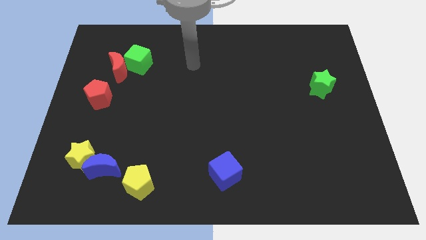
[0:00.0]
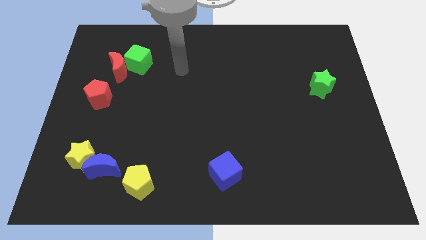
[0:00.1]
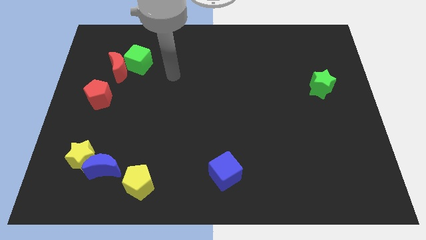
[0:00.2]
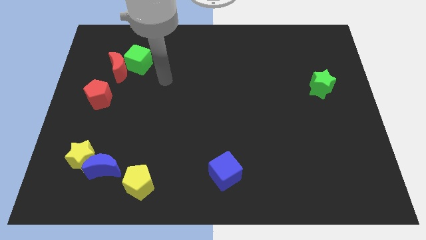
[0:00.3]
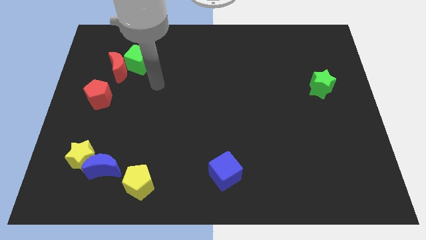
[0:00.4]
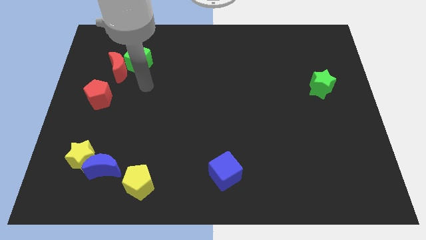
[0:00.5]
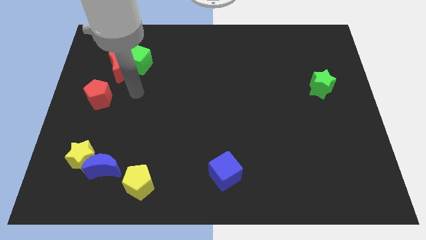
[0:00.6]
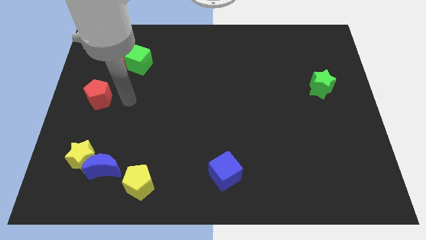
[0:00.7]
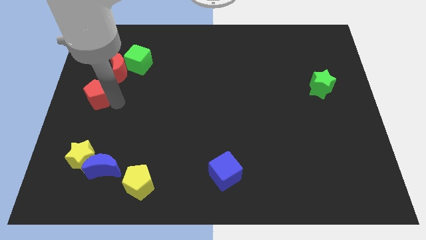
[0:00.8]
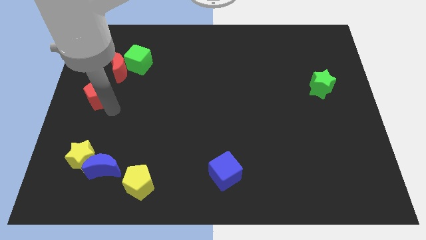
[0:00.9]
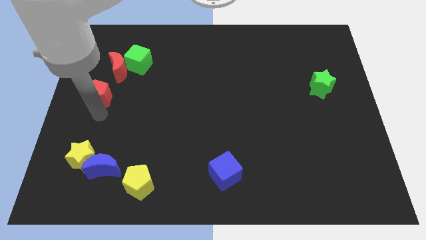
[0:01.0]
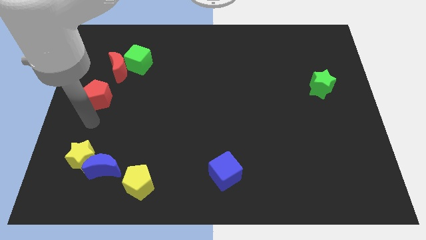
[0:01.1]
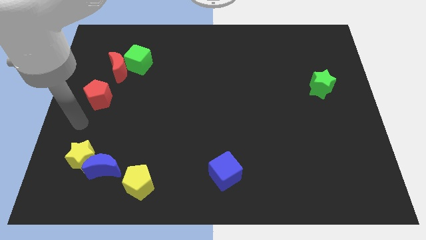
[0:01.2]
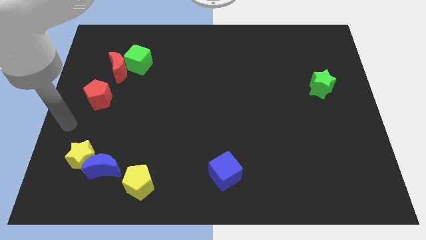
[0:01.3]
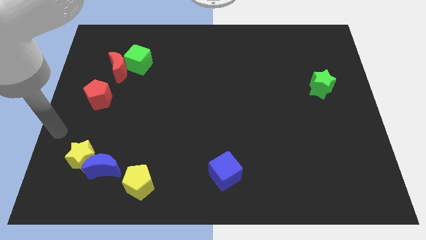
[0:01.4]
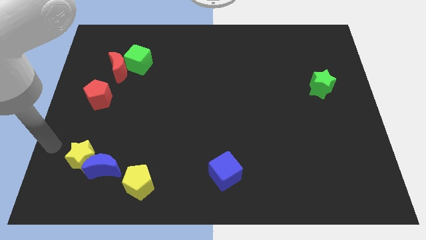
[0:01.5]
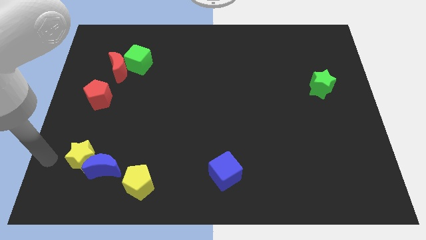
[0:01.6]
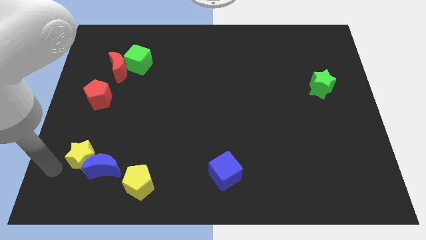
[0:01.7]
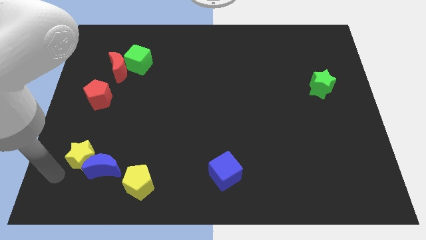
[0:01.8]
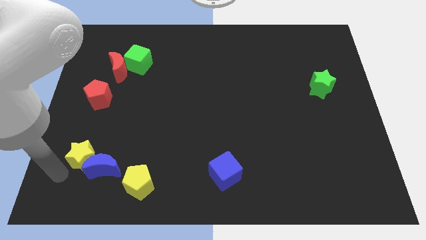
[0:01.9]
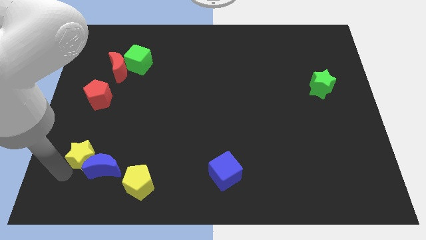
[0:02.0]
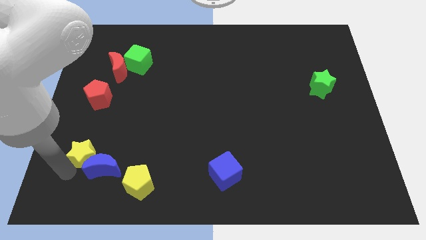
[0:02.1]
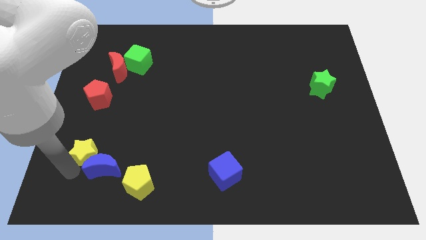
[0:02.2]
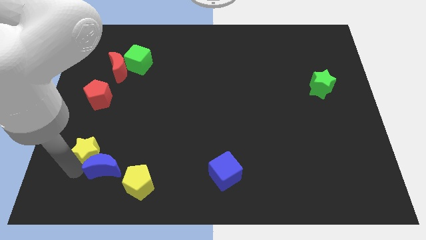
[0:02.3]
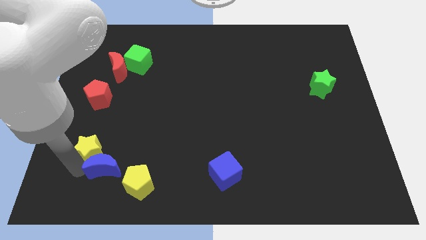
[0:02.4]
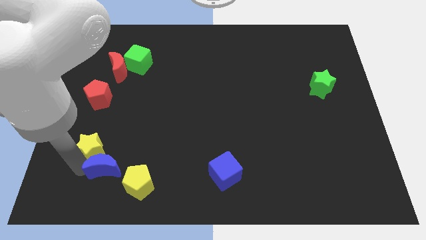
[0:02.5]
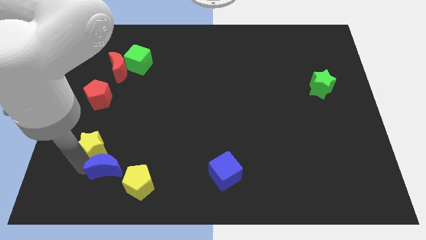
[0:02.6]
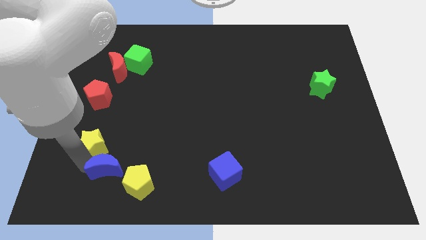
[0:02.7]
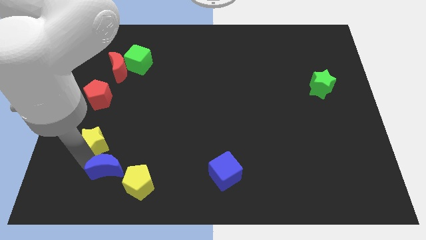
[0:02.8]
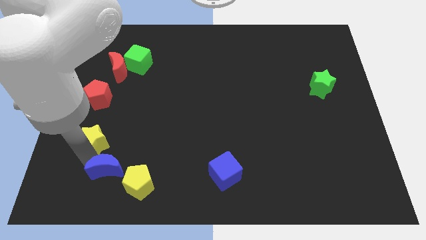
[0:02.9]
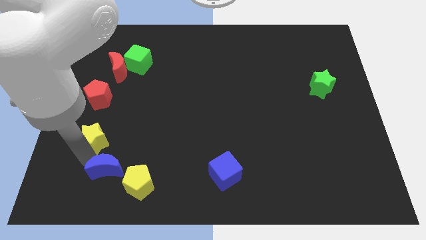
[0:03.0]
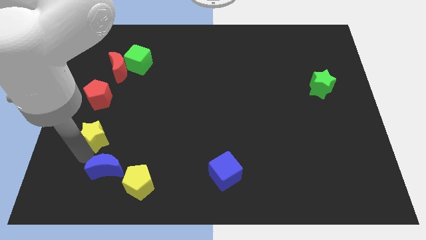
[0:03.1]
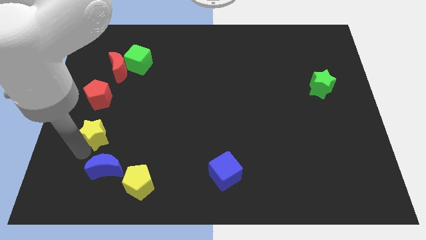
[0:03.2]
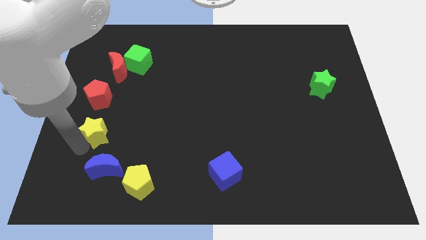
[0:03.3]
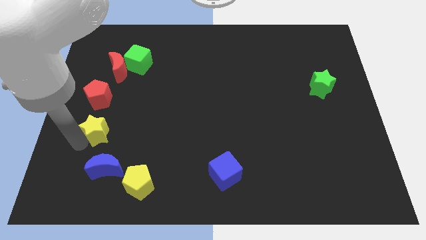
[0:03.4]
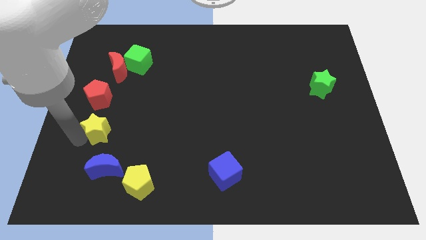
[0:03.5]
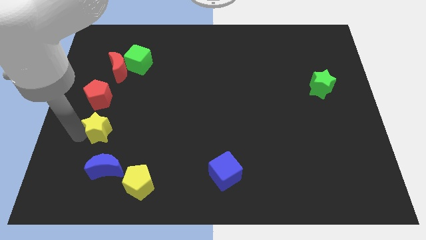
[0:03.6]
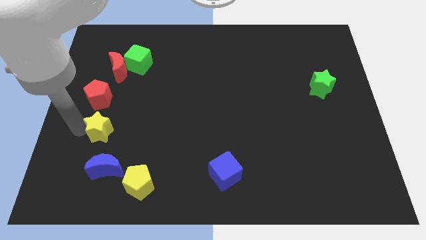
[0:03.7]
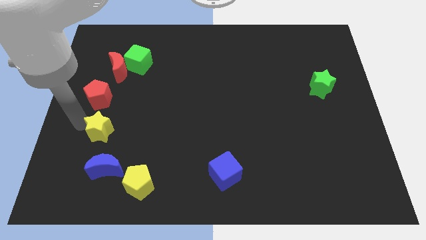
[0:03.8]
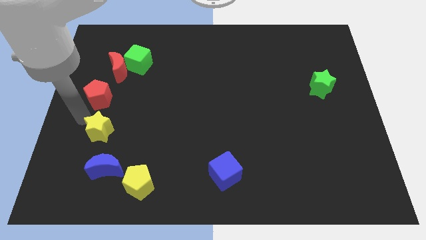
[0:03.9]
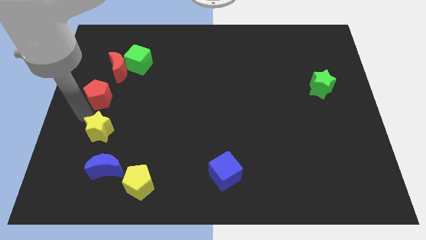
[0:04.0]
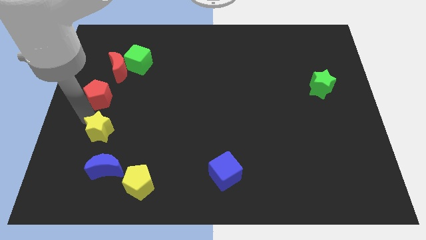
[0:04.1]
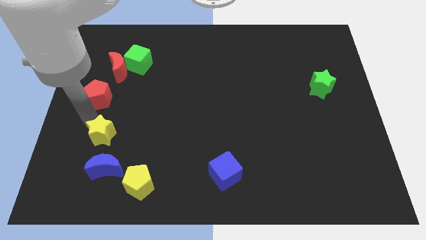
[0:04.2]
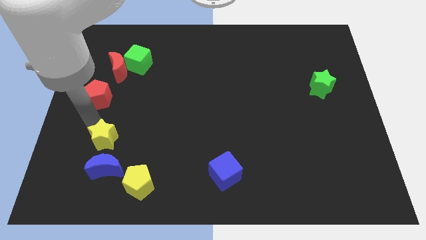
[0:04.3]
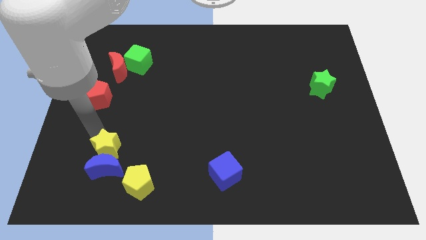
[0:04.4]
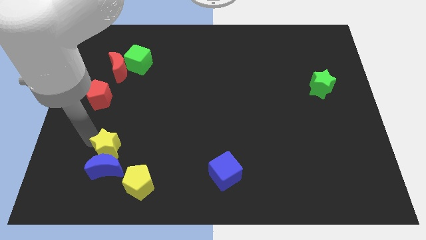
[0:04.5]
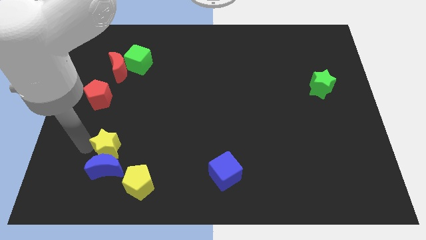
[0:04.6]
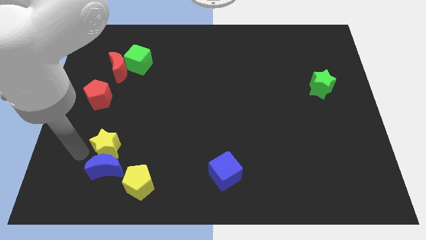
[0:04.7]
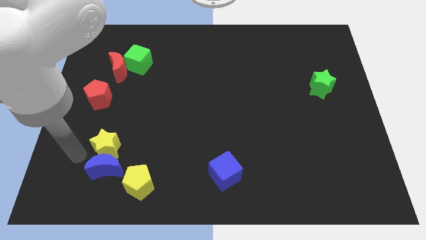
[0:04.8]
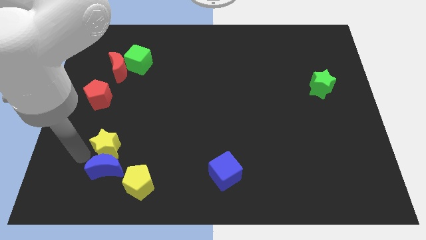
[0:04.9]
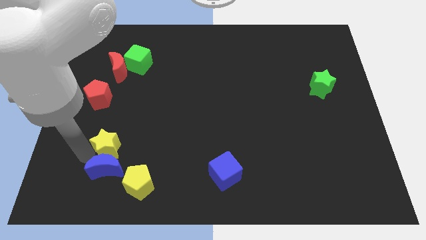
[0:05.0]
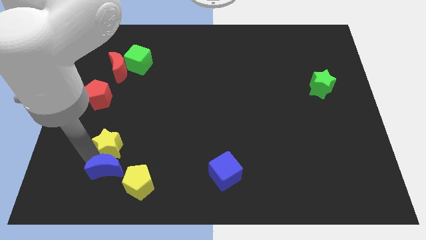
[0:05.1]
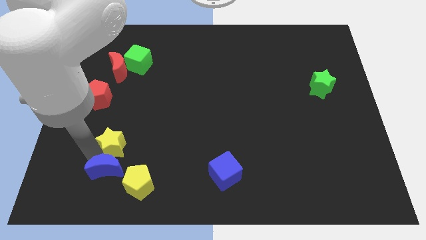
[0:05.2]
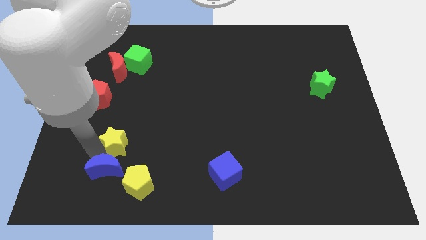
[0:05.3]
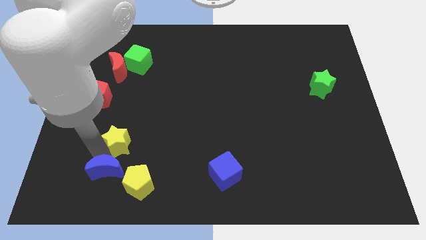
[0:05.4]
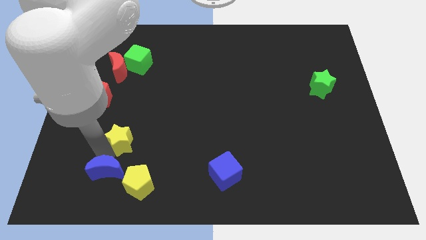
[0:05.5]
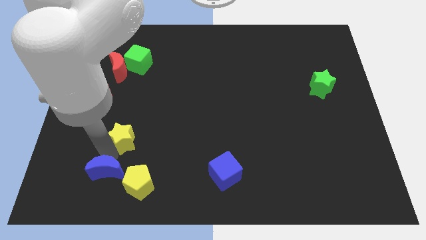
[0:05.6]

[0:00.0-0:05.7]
move the yellow star to the top side of the yellow pentagon

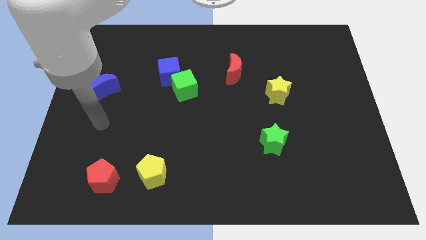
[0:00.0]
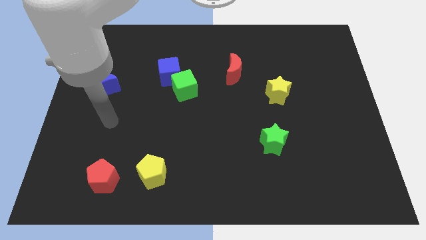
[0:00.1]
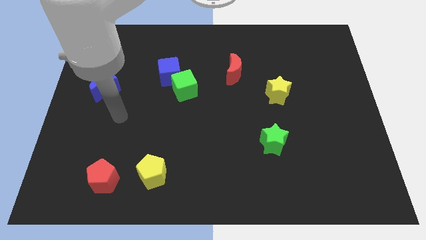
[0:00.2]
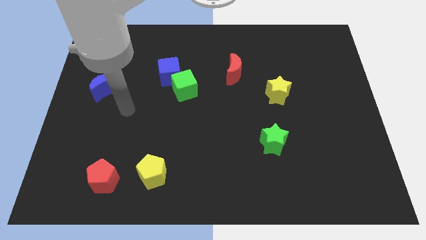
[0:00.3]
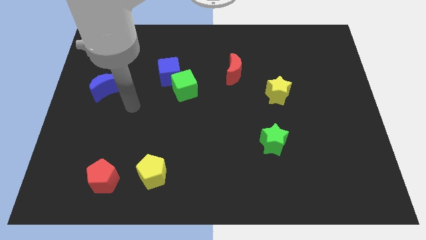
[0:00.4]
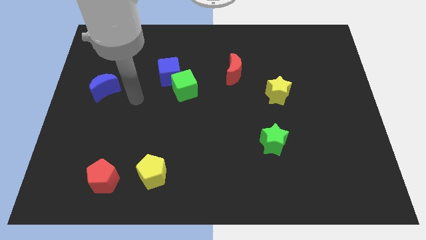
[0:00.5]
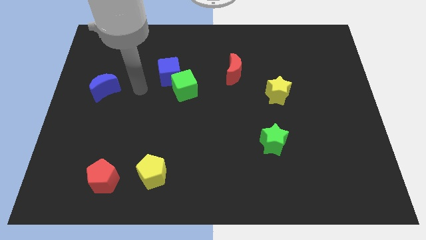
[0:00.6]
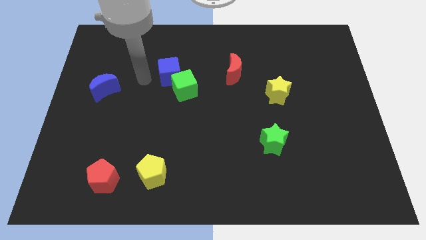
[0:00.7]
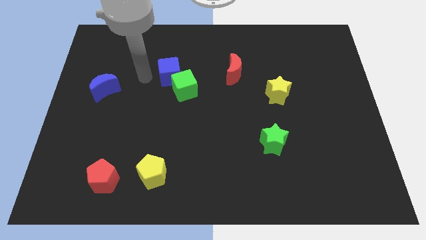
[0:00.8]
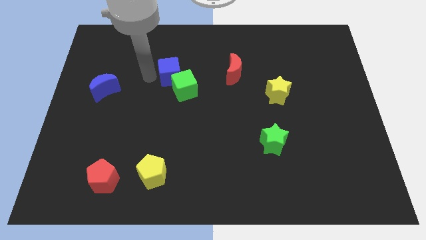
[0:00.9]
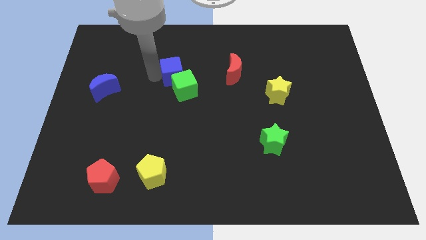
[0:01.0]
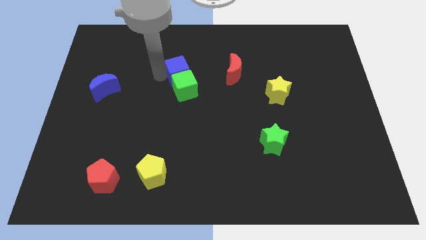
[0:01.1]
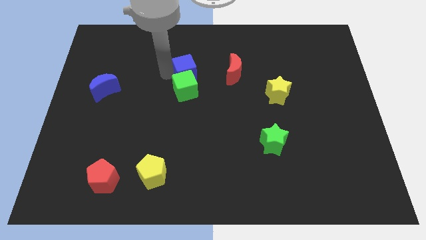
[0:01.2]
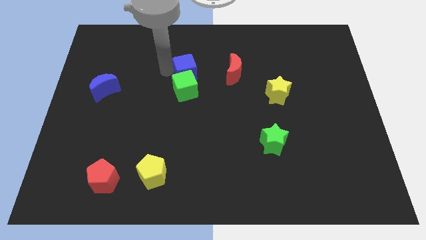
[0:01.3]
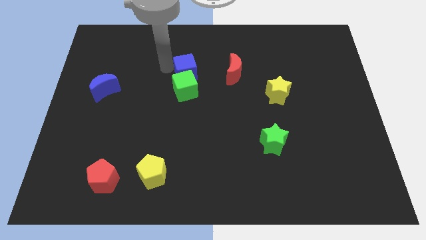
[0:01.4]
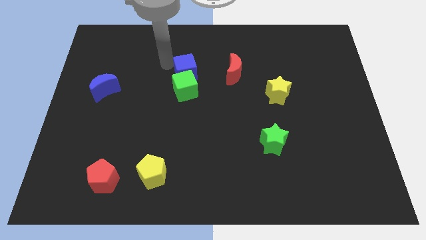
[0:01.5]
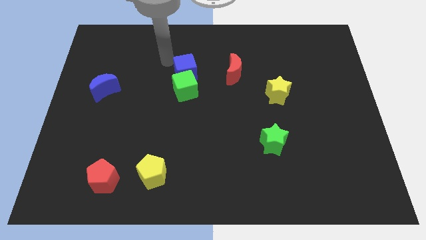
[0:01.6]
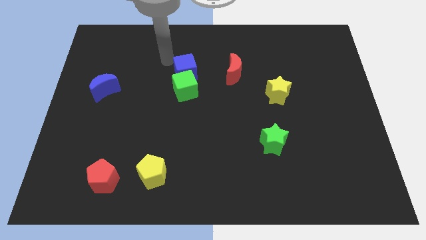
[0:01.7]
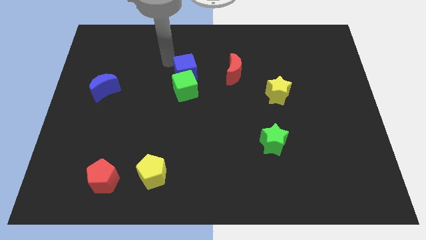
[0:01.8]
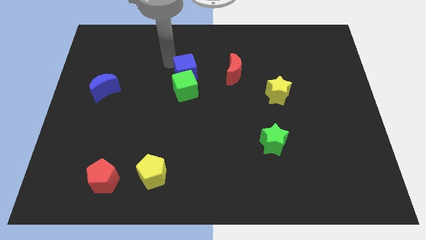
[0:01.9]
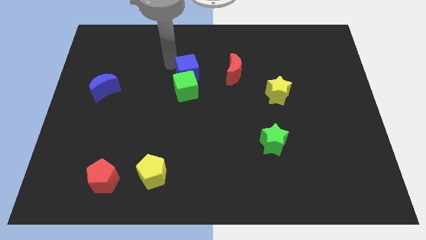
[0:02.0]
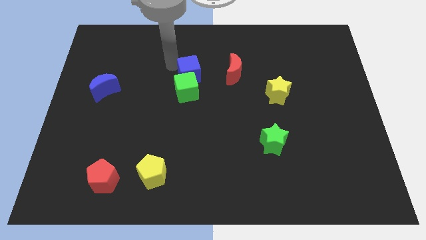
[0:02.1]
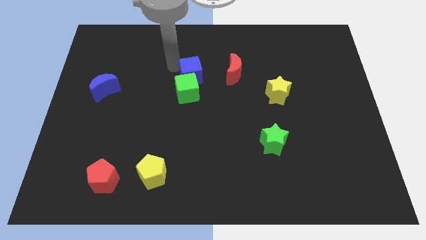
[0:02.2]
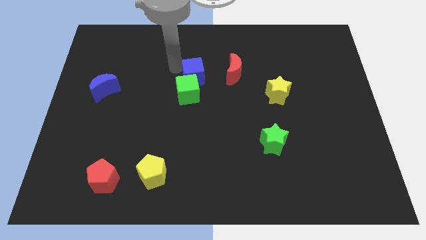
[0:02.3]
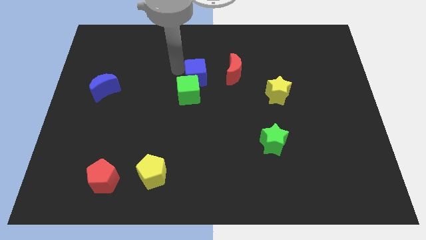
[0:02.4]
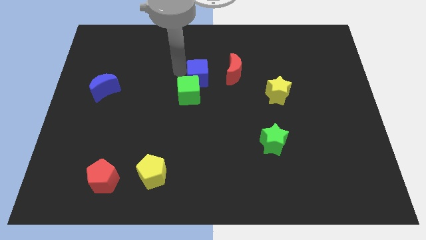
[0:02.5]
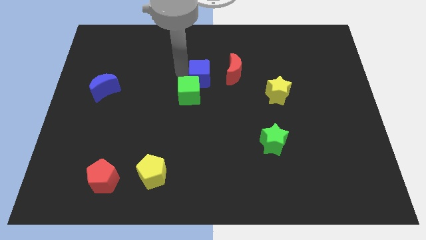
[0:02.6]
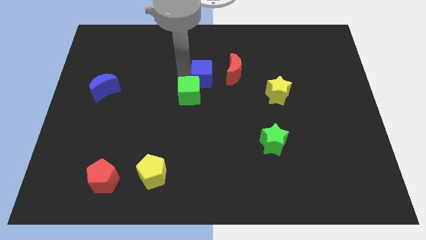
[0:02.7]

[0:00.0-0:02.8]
push the blue cube to the bottom left of the red moon
